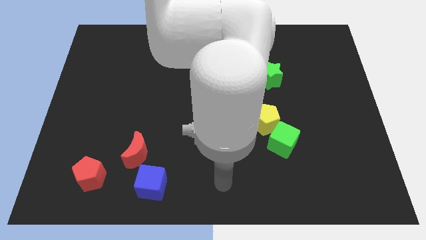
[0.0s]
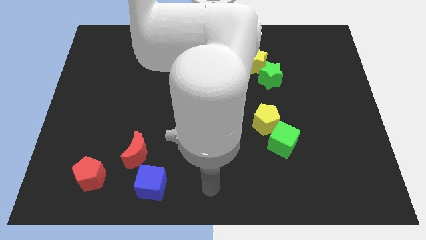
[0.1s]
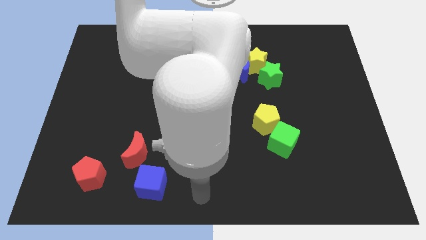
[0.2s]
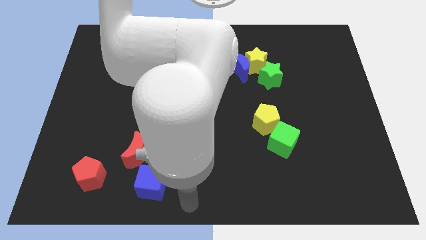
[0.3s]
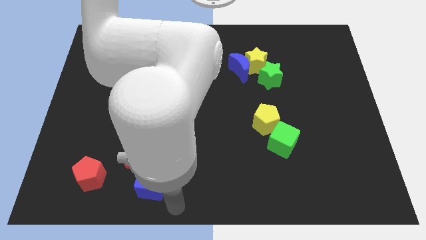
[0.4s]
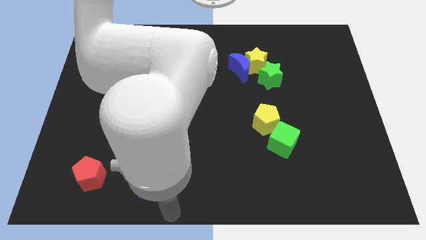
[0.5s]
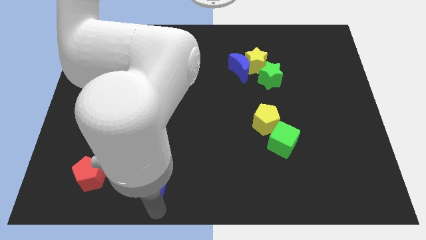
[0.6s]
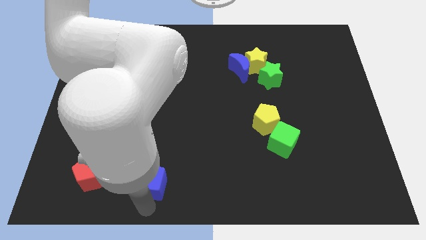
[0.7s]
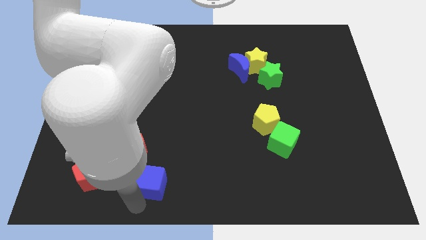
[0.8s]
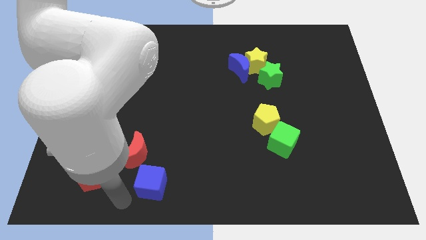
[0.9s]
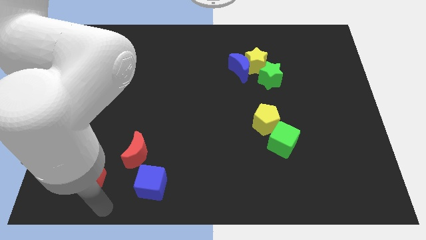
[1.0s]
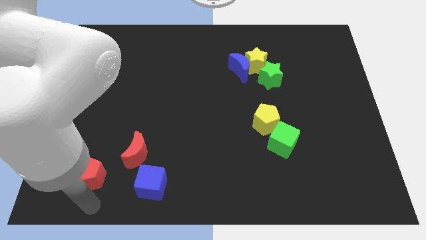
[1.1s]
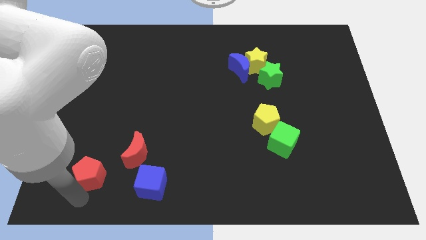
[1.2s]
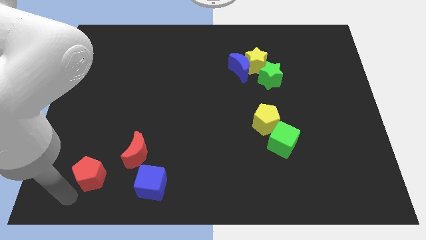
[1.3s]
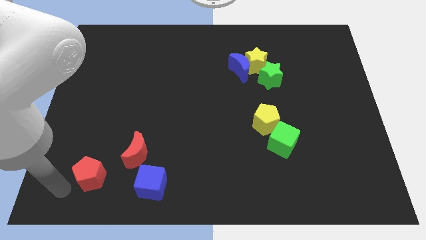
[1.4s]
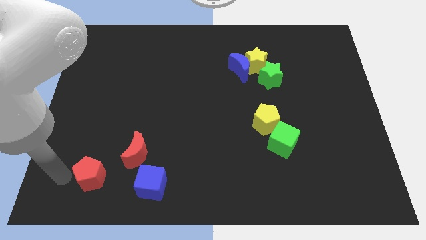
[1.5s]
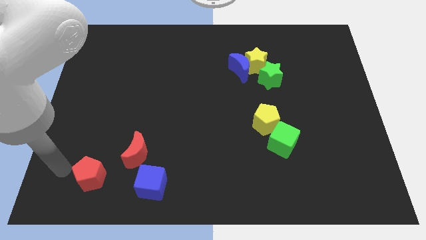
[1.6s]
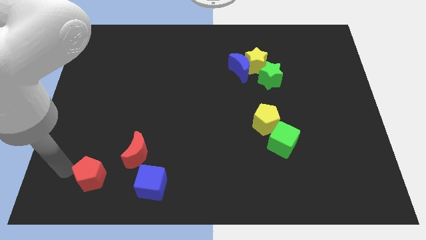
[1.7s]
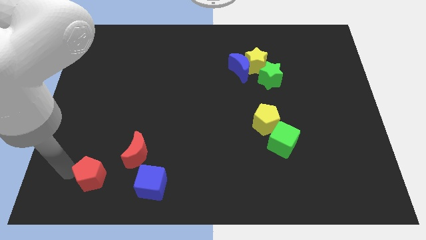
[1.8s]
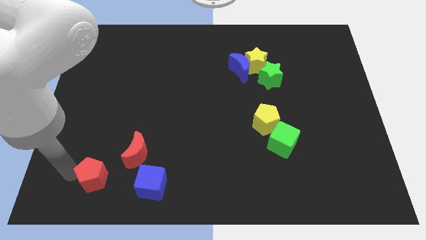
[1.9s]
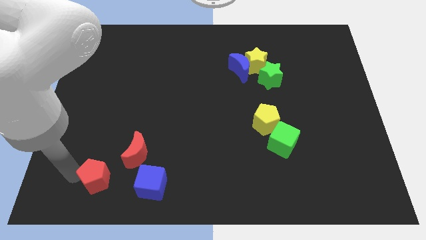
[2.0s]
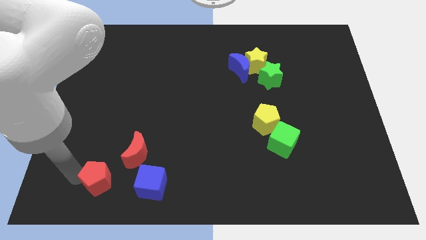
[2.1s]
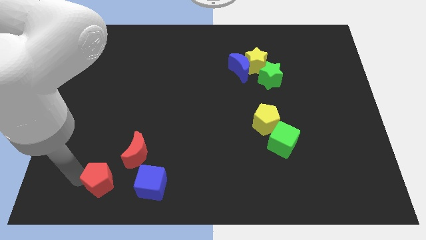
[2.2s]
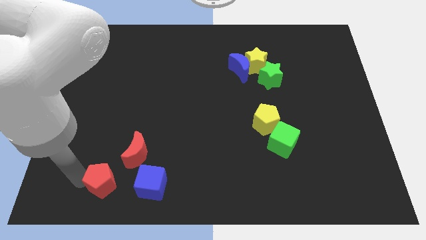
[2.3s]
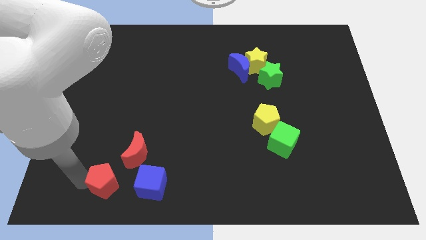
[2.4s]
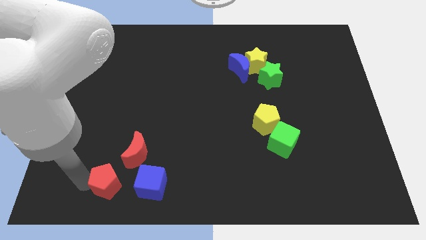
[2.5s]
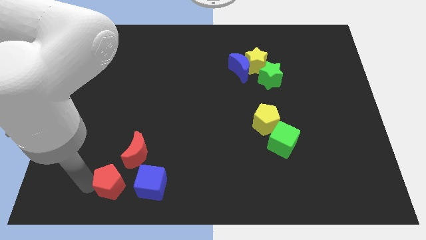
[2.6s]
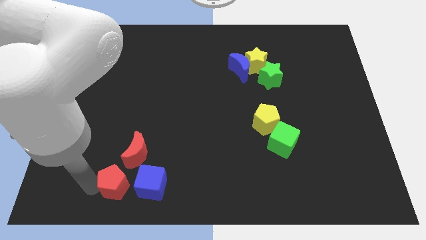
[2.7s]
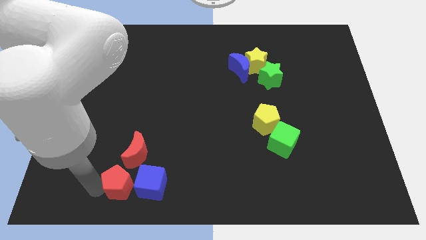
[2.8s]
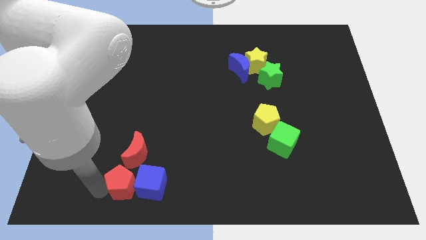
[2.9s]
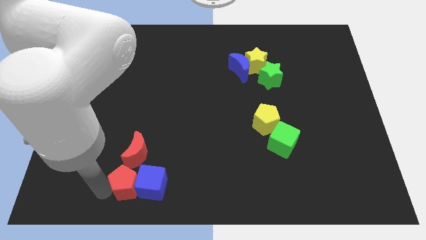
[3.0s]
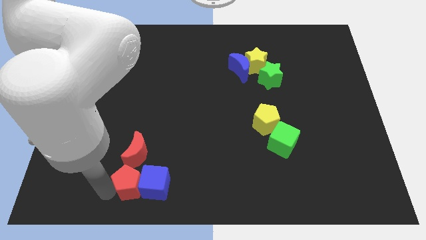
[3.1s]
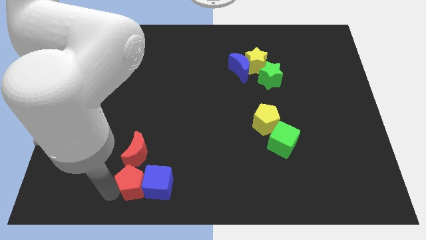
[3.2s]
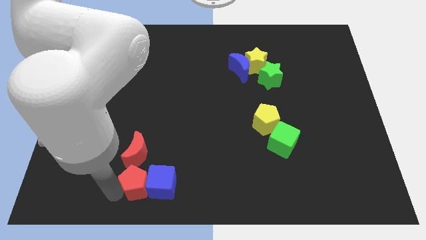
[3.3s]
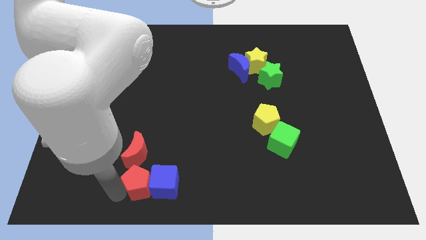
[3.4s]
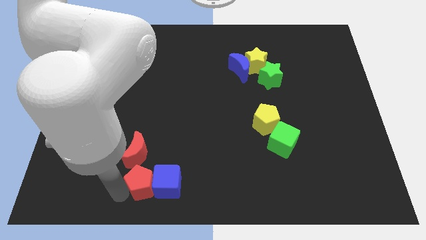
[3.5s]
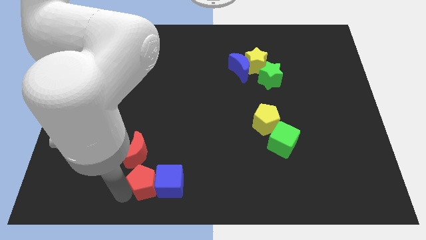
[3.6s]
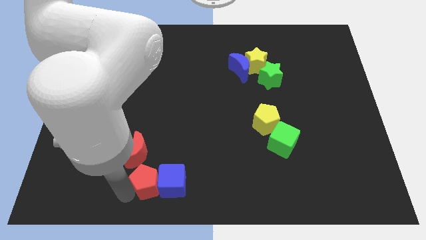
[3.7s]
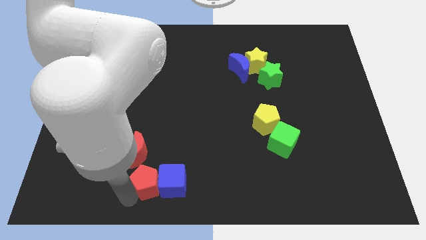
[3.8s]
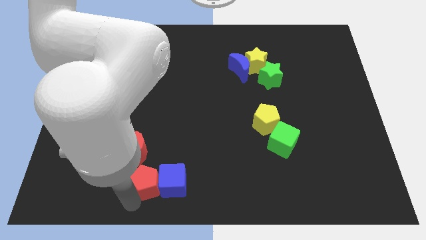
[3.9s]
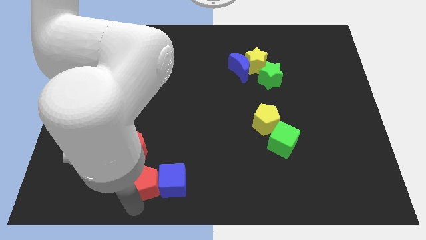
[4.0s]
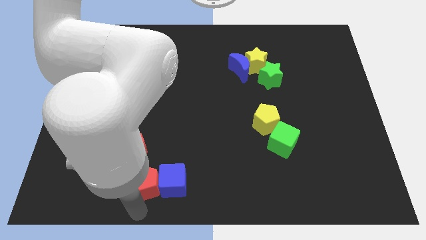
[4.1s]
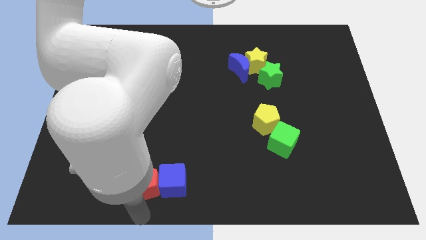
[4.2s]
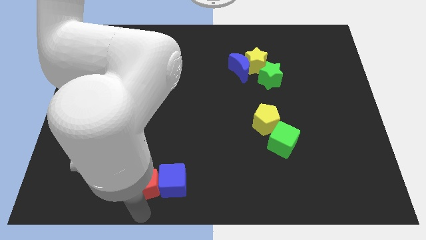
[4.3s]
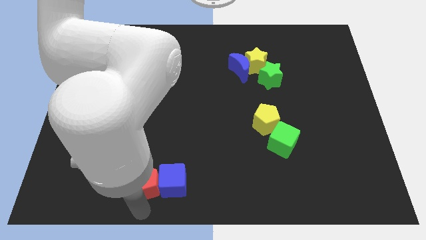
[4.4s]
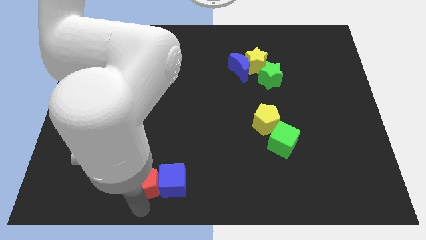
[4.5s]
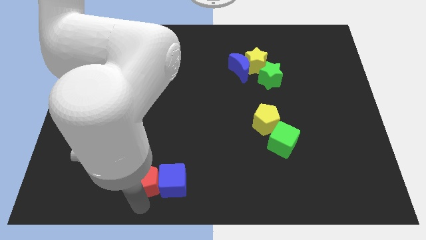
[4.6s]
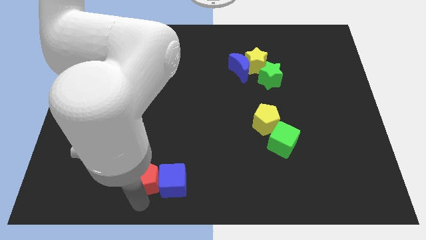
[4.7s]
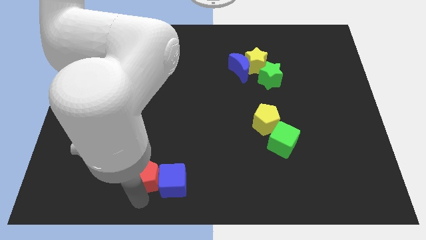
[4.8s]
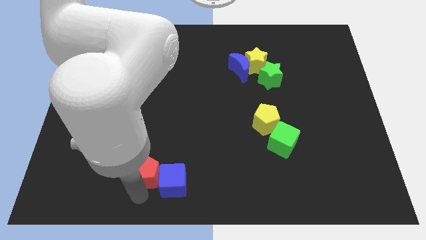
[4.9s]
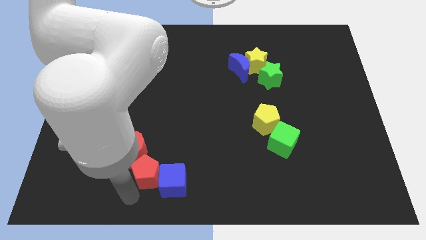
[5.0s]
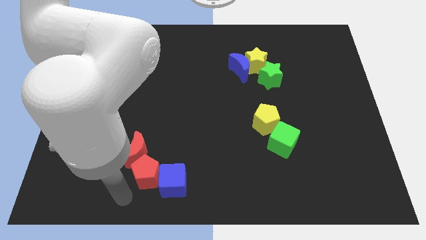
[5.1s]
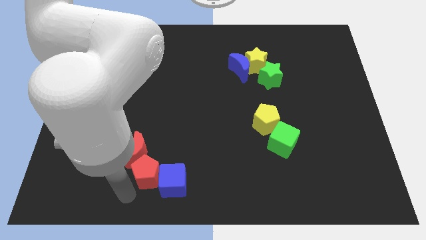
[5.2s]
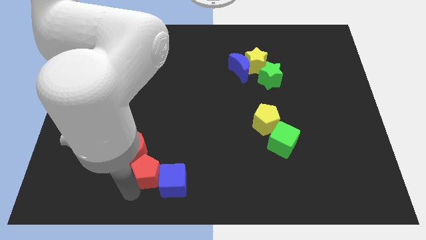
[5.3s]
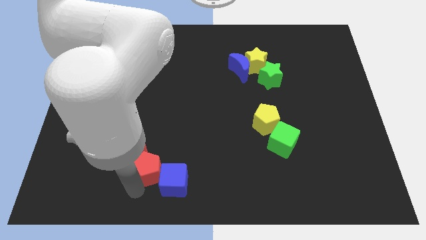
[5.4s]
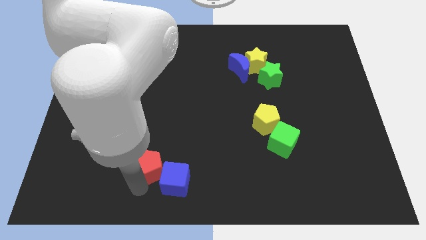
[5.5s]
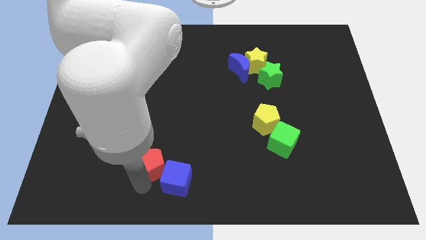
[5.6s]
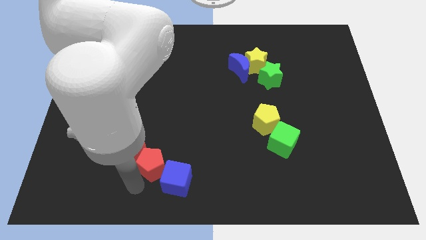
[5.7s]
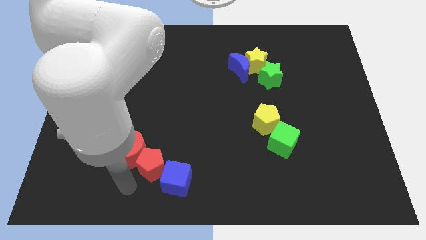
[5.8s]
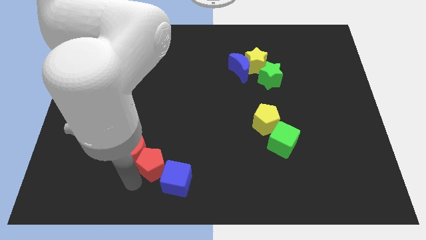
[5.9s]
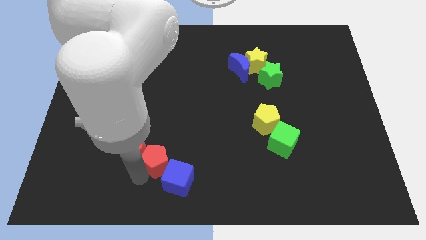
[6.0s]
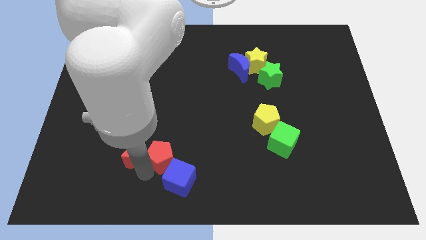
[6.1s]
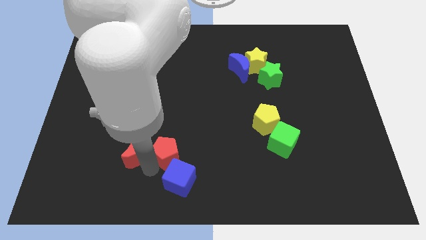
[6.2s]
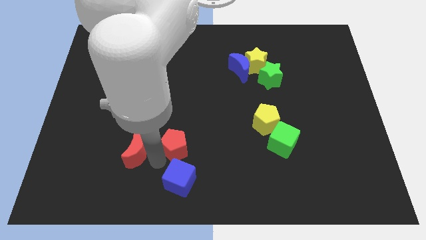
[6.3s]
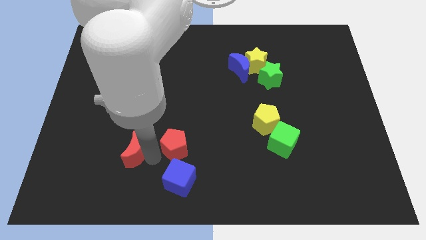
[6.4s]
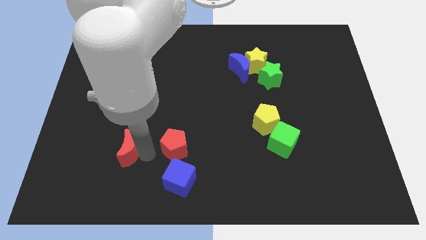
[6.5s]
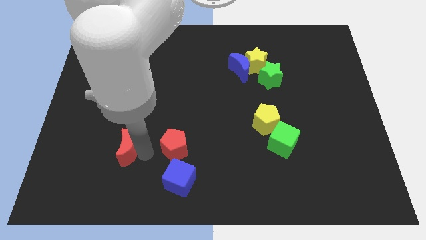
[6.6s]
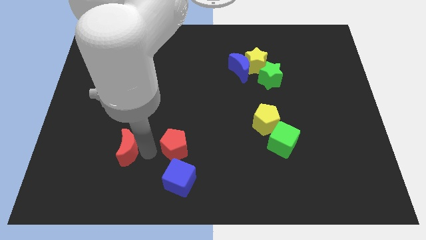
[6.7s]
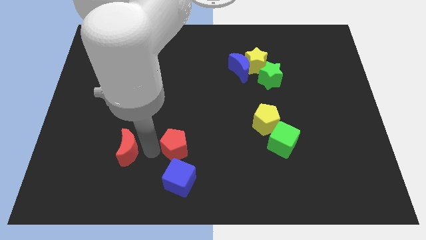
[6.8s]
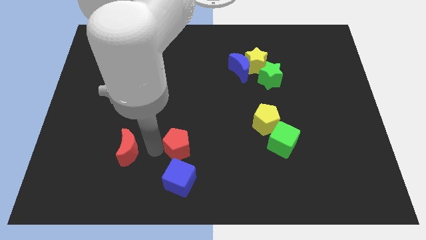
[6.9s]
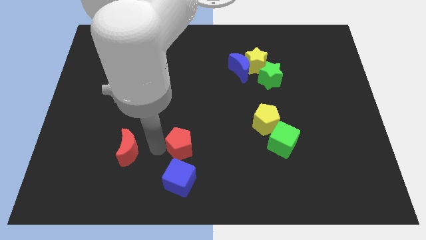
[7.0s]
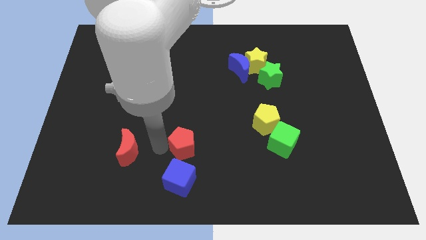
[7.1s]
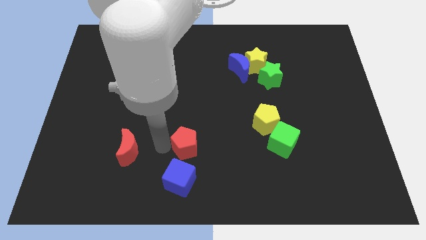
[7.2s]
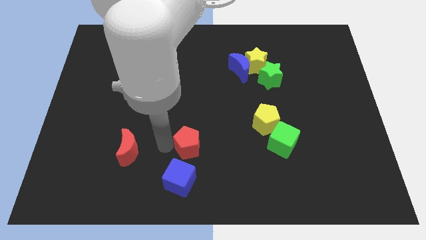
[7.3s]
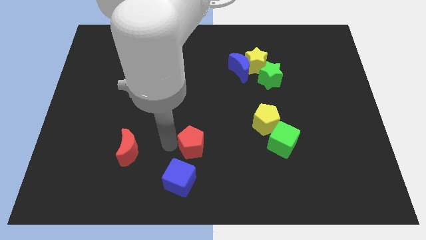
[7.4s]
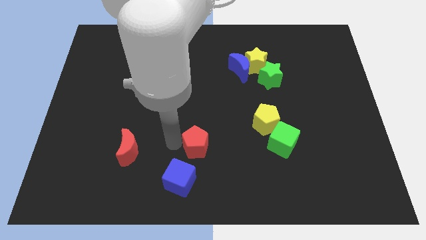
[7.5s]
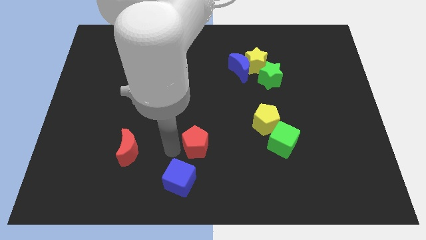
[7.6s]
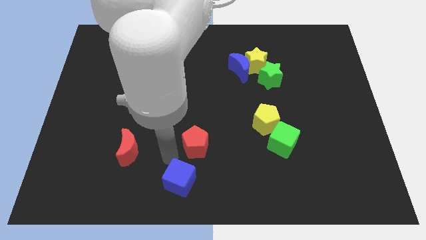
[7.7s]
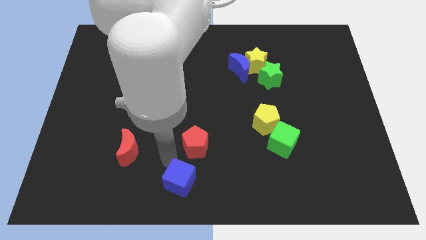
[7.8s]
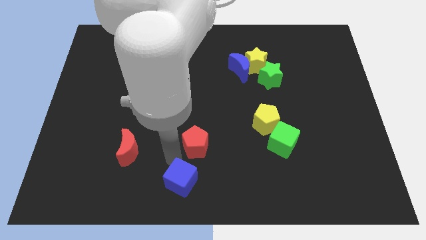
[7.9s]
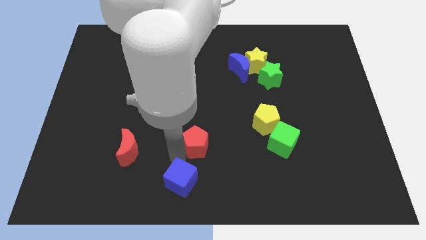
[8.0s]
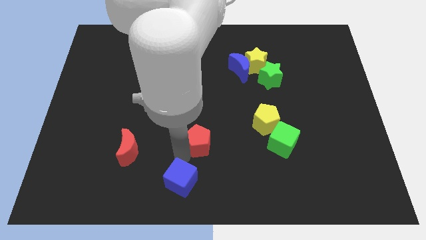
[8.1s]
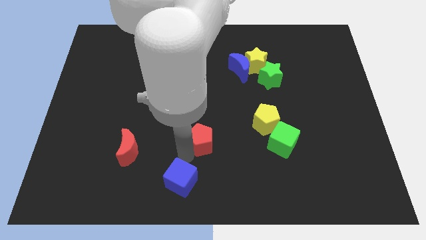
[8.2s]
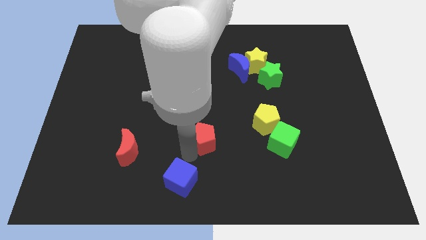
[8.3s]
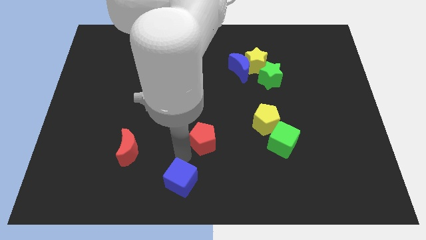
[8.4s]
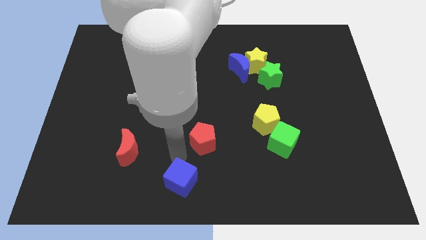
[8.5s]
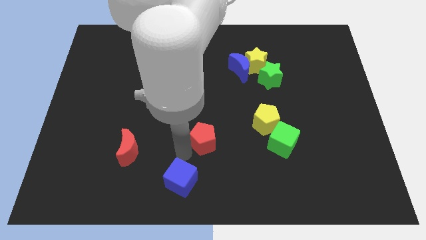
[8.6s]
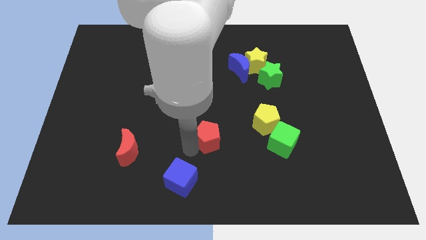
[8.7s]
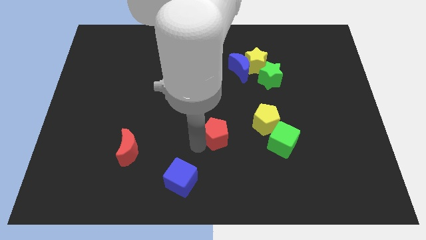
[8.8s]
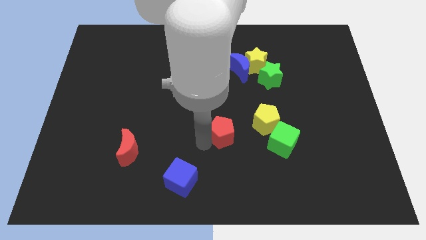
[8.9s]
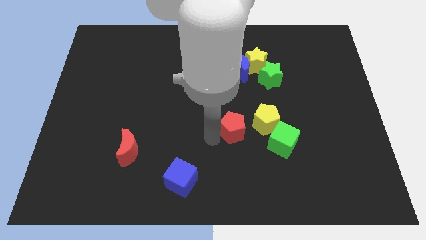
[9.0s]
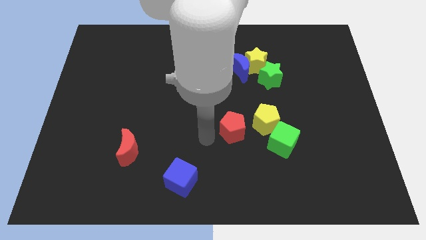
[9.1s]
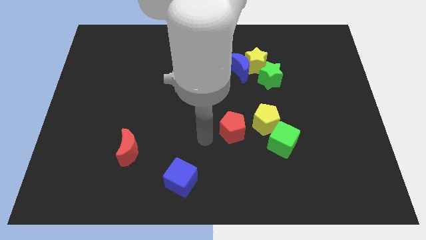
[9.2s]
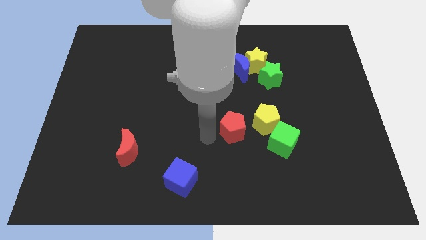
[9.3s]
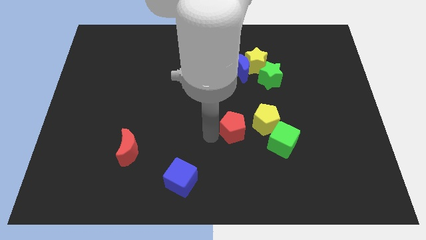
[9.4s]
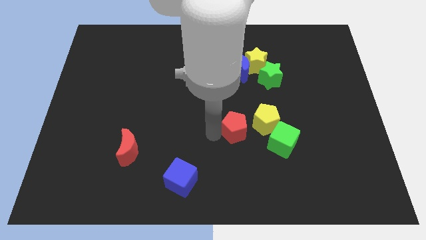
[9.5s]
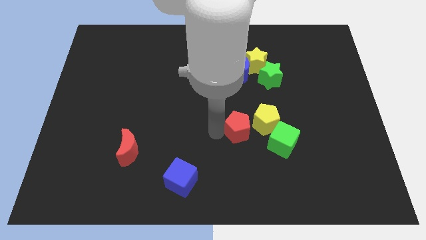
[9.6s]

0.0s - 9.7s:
slide the red pentagon to the top left side of the green cube
